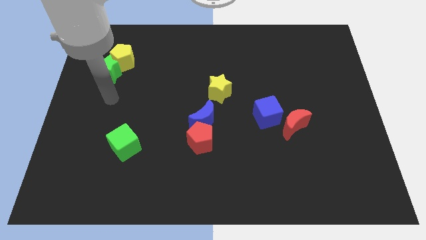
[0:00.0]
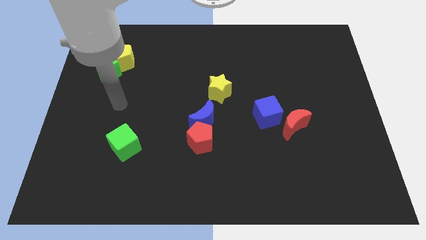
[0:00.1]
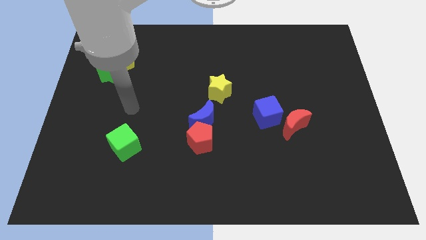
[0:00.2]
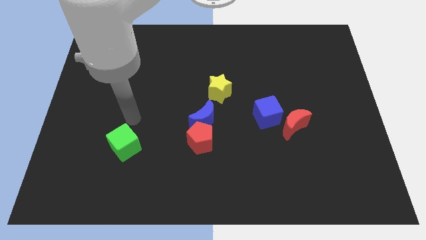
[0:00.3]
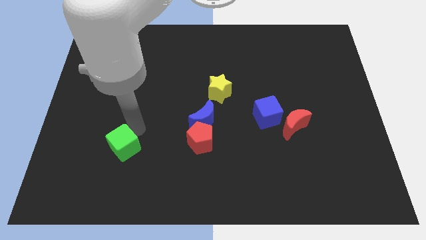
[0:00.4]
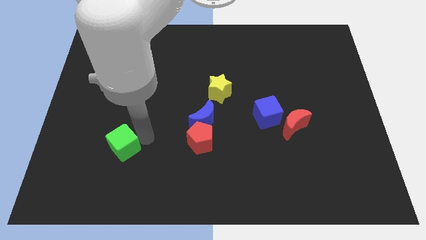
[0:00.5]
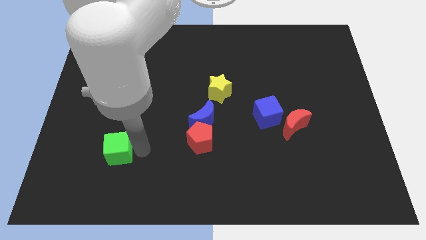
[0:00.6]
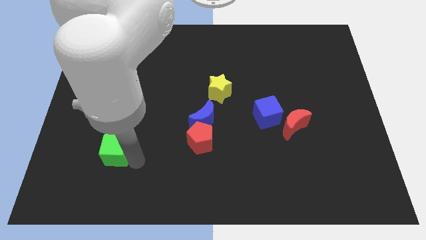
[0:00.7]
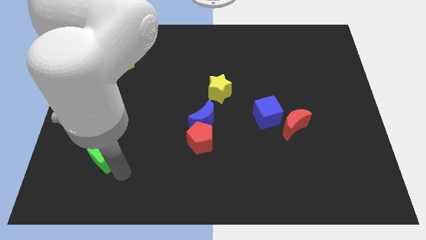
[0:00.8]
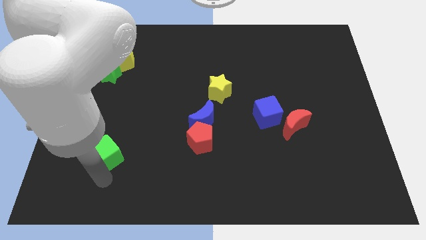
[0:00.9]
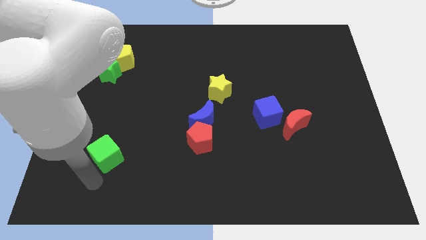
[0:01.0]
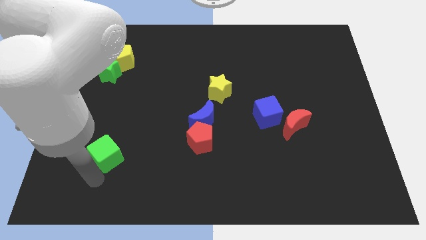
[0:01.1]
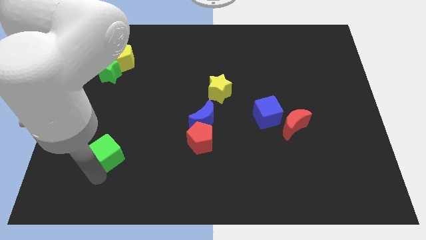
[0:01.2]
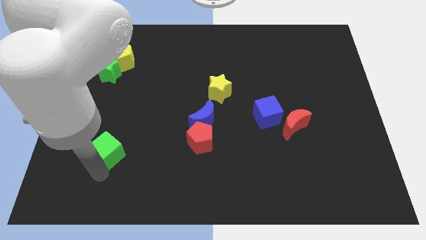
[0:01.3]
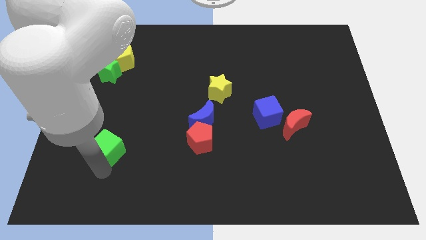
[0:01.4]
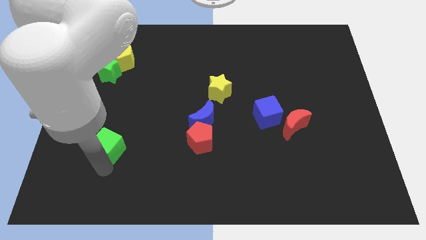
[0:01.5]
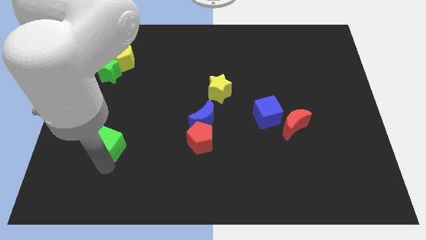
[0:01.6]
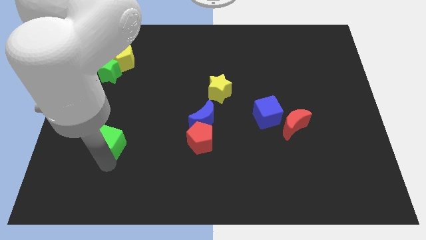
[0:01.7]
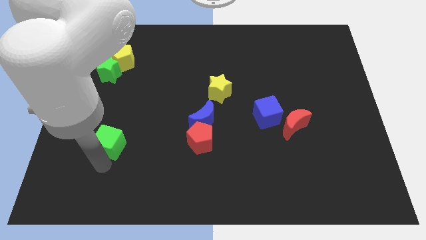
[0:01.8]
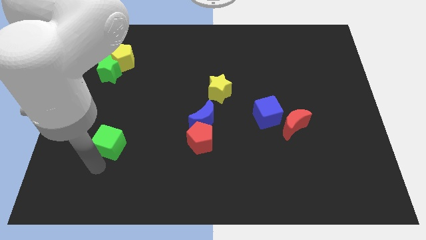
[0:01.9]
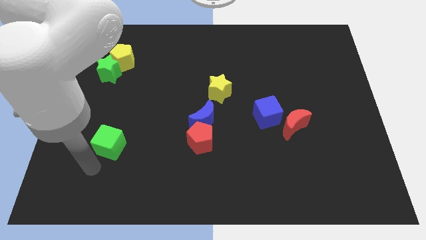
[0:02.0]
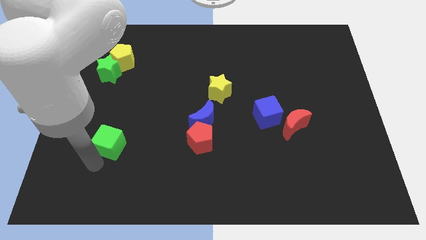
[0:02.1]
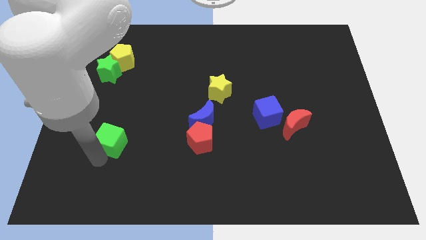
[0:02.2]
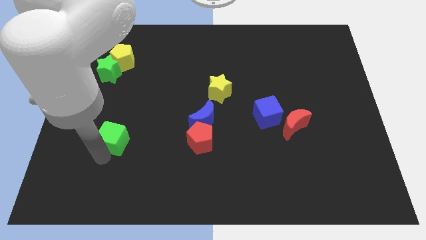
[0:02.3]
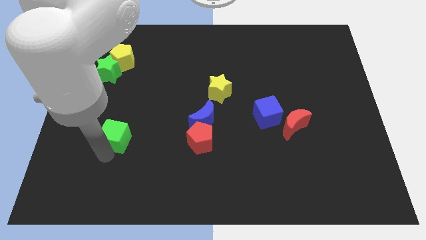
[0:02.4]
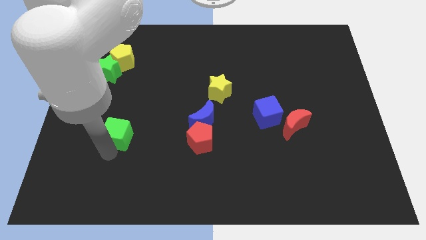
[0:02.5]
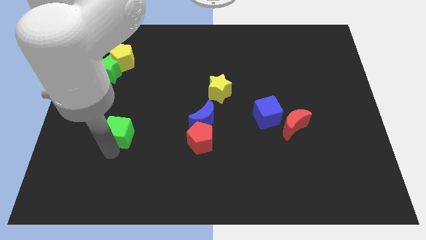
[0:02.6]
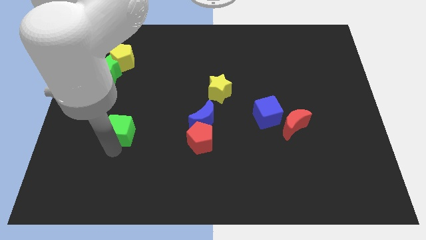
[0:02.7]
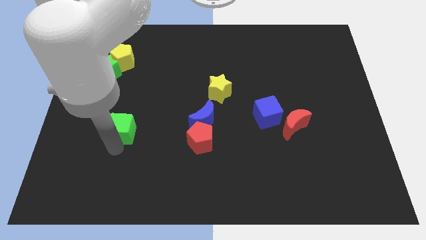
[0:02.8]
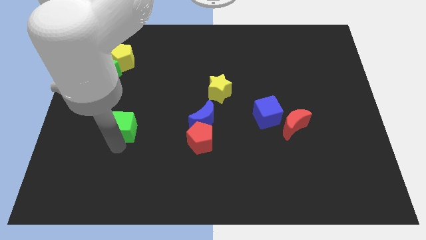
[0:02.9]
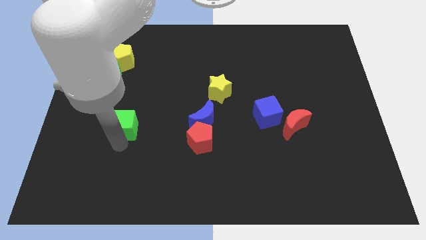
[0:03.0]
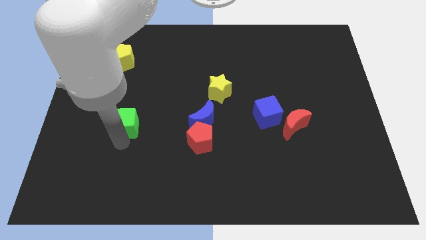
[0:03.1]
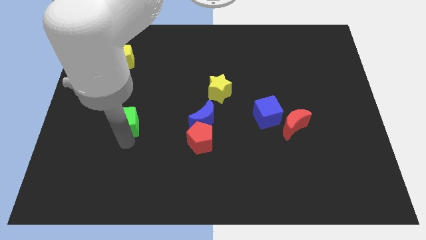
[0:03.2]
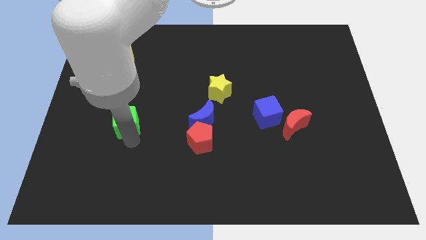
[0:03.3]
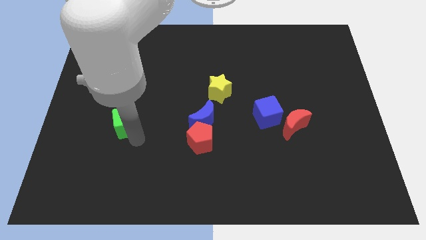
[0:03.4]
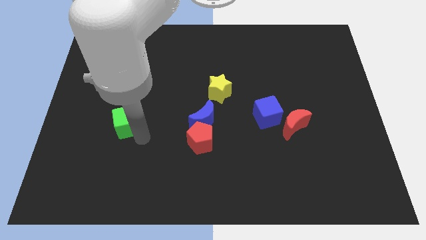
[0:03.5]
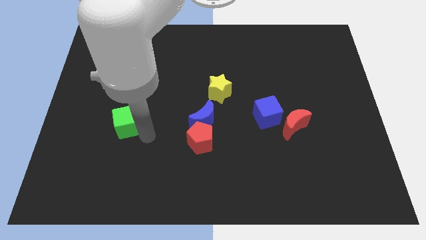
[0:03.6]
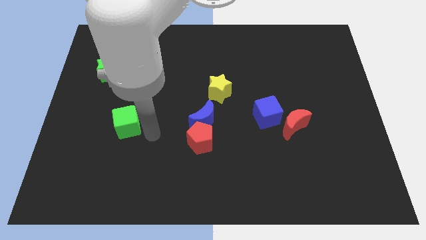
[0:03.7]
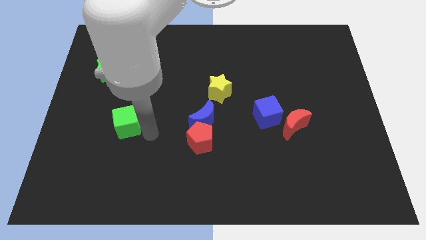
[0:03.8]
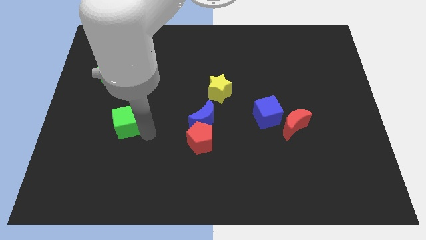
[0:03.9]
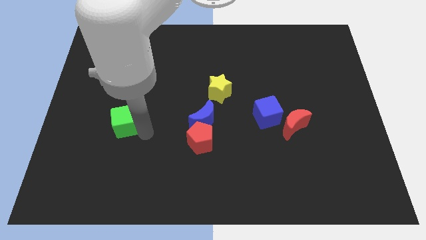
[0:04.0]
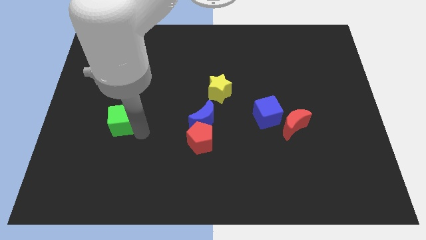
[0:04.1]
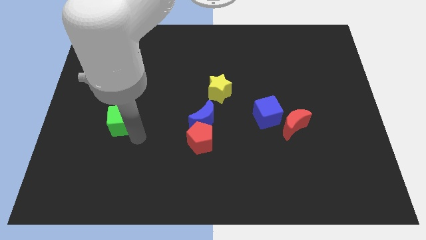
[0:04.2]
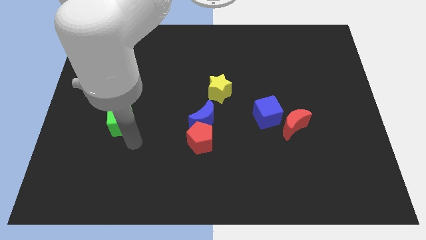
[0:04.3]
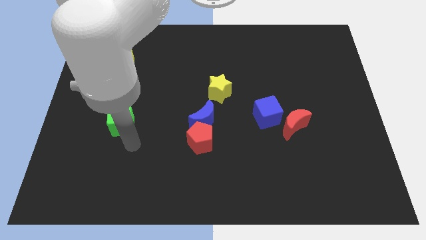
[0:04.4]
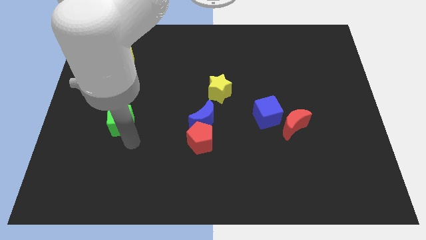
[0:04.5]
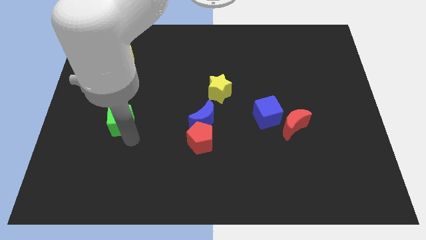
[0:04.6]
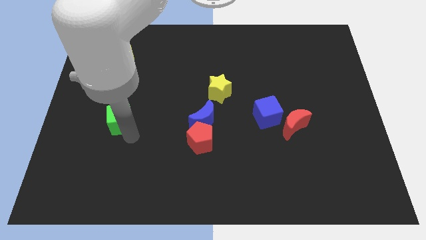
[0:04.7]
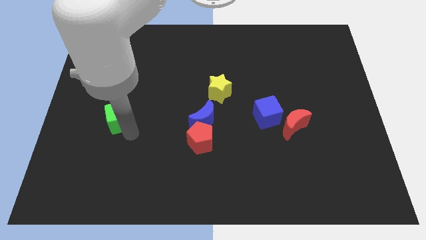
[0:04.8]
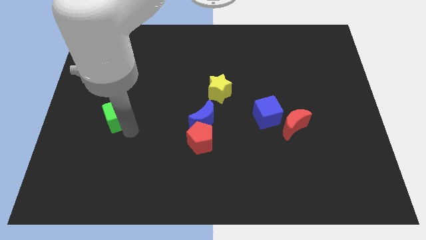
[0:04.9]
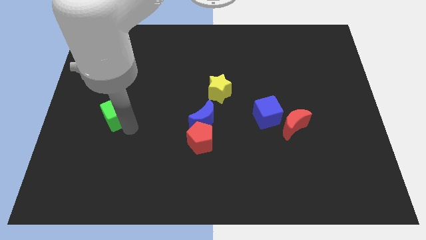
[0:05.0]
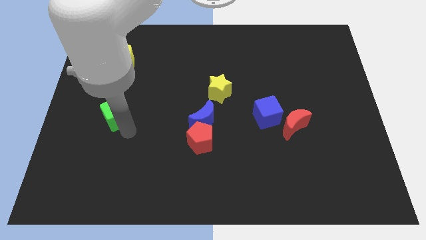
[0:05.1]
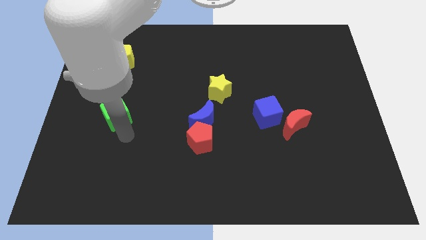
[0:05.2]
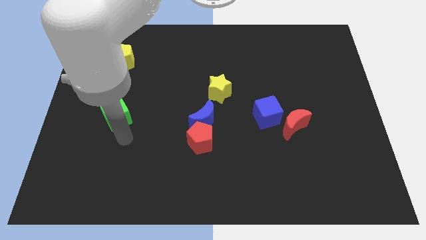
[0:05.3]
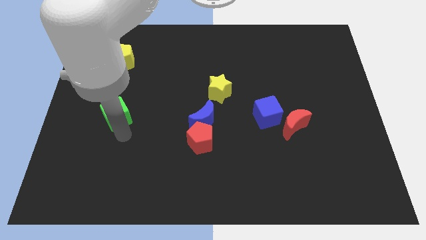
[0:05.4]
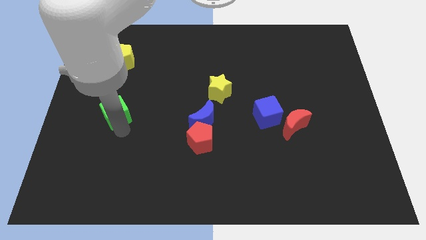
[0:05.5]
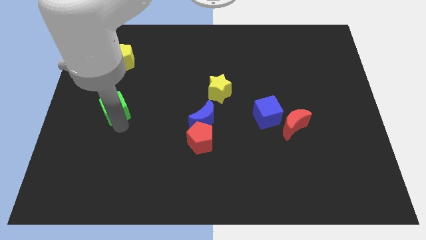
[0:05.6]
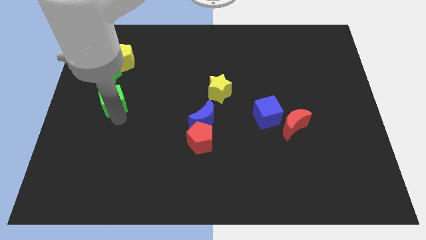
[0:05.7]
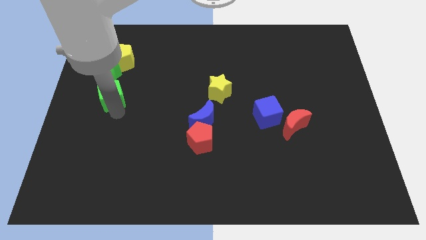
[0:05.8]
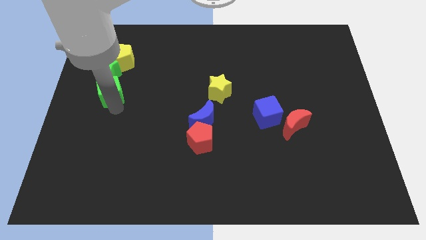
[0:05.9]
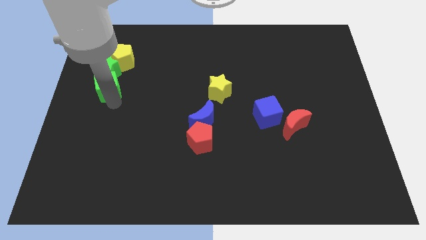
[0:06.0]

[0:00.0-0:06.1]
push the green cube to the green star

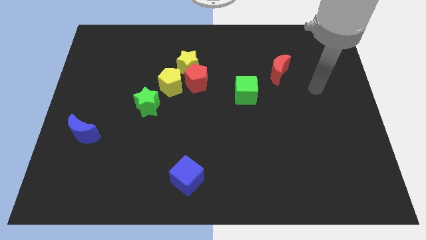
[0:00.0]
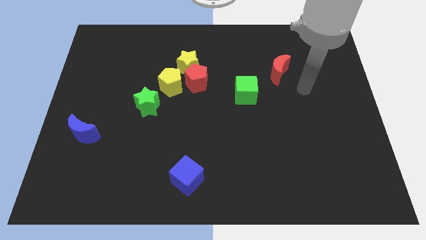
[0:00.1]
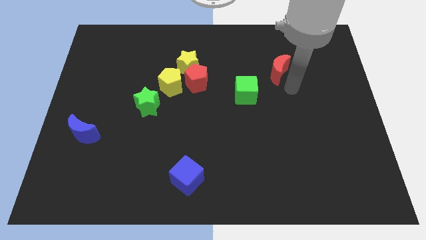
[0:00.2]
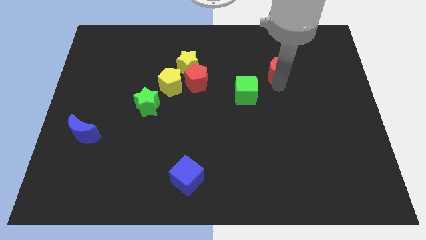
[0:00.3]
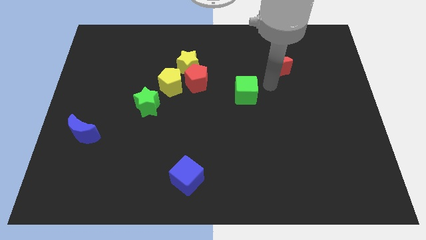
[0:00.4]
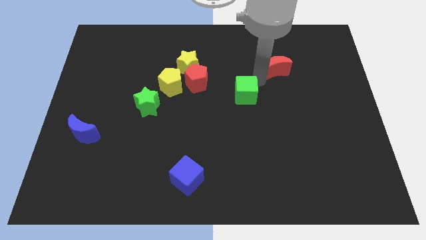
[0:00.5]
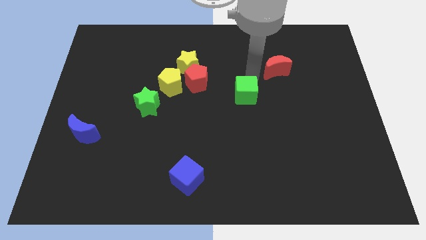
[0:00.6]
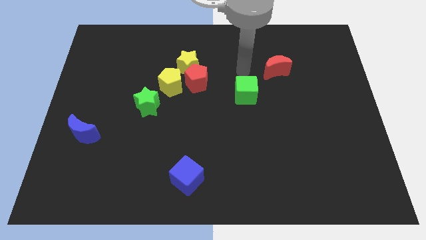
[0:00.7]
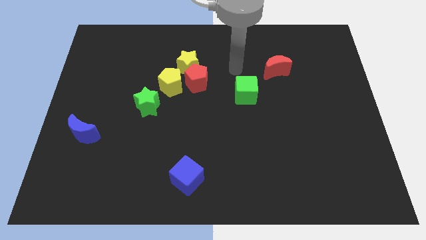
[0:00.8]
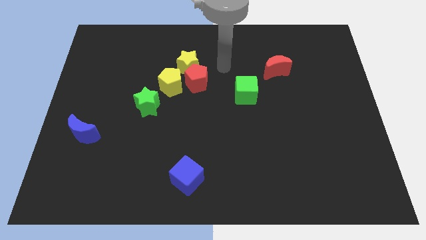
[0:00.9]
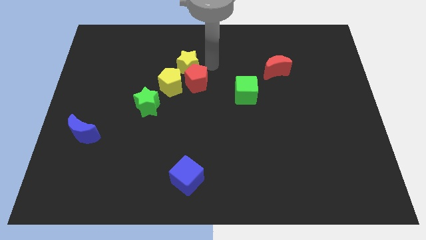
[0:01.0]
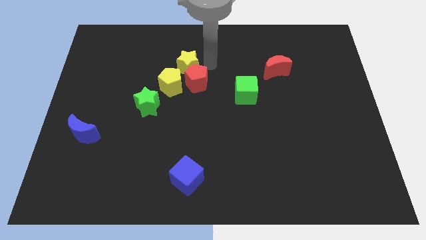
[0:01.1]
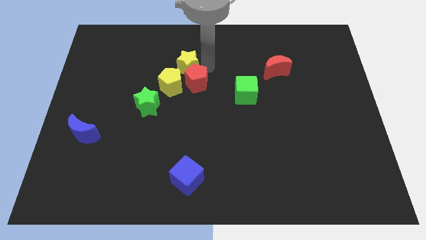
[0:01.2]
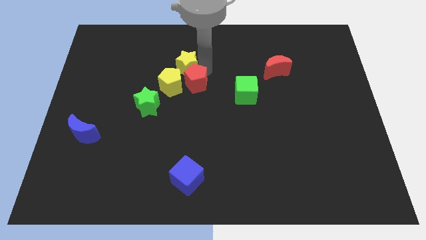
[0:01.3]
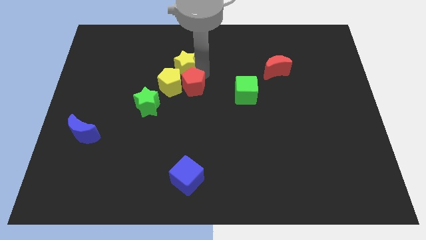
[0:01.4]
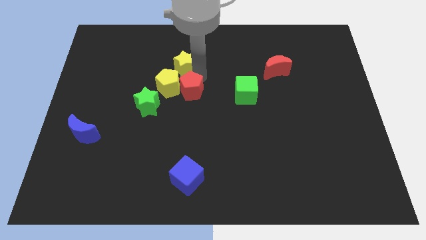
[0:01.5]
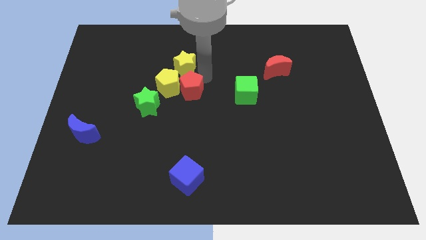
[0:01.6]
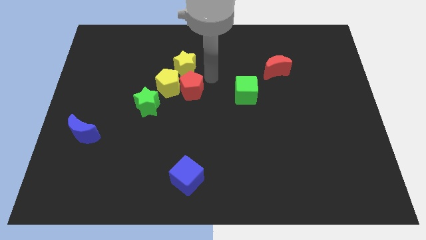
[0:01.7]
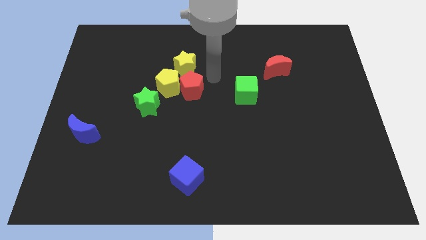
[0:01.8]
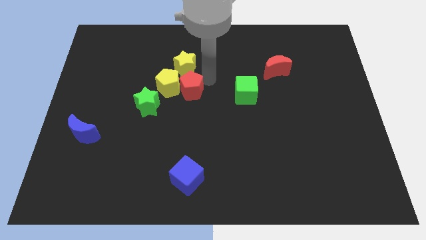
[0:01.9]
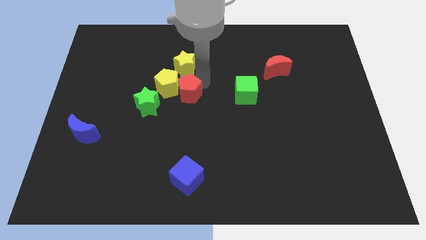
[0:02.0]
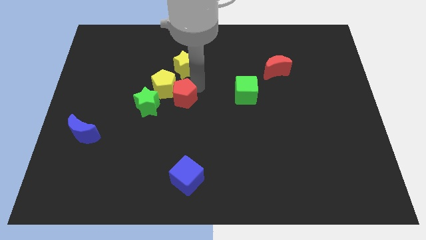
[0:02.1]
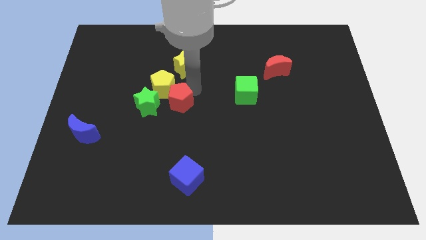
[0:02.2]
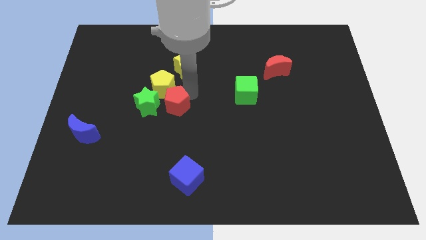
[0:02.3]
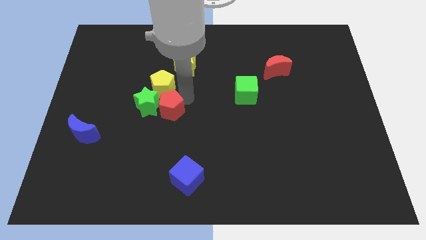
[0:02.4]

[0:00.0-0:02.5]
push the red pentagon next to the green star
